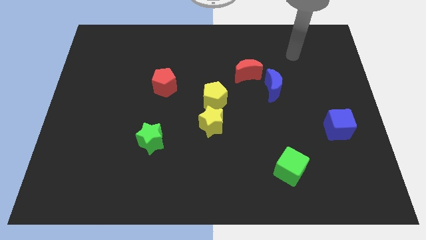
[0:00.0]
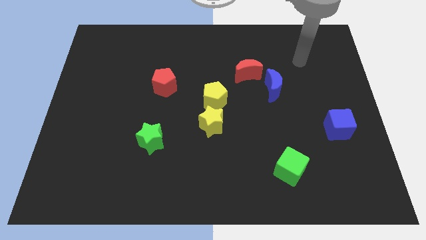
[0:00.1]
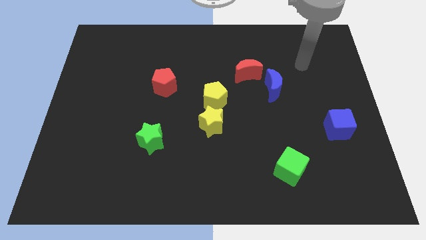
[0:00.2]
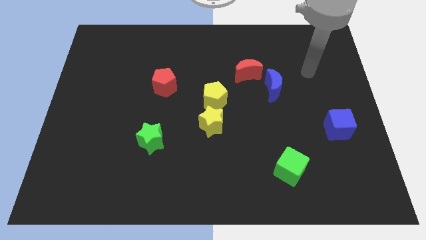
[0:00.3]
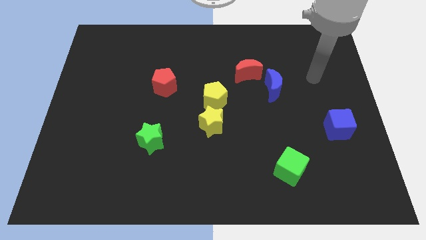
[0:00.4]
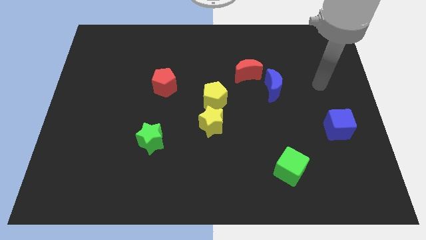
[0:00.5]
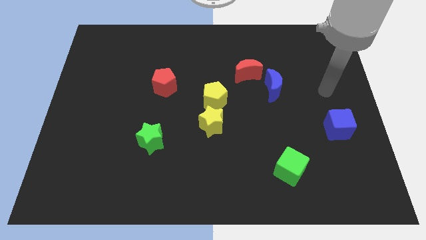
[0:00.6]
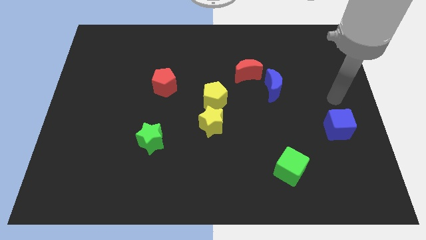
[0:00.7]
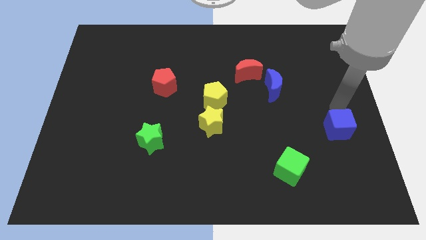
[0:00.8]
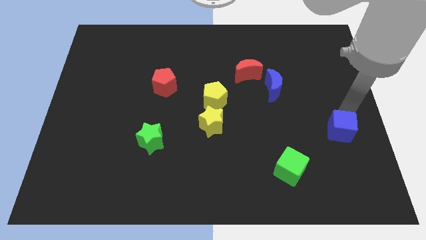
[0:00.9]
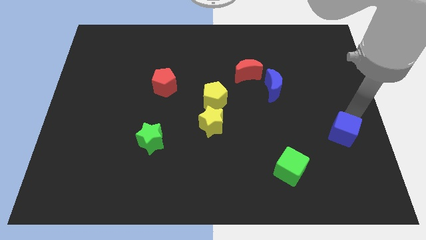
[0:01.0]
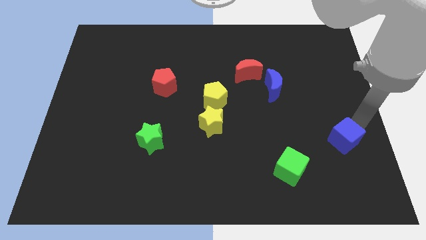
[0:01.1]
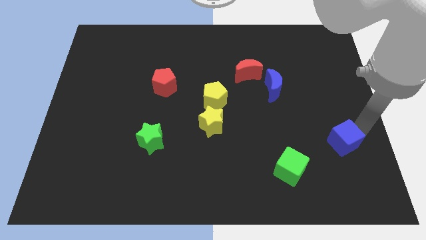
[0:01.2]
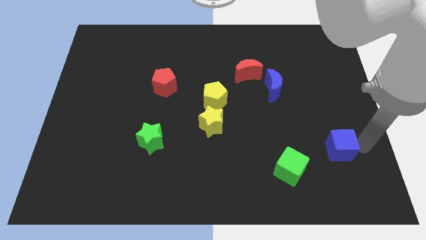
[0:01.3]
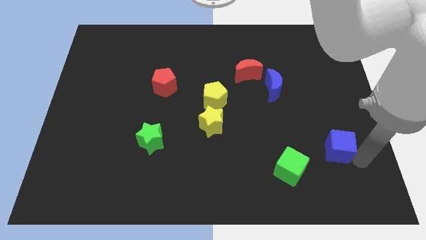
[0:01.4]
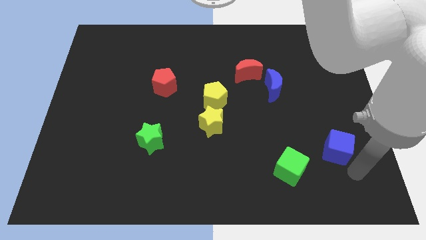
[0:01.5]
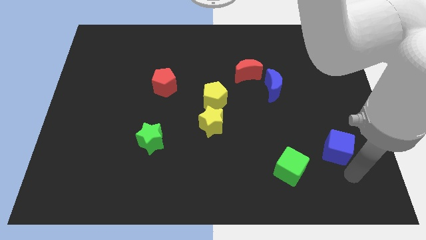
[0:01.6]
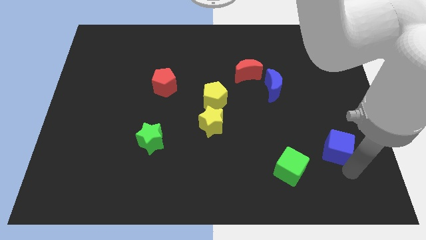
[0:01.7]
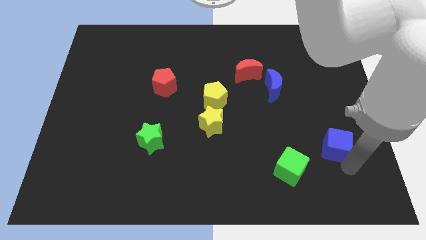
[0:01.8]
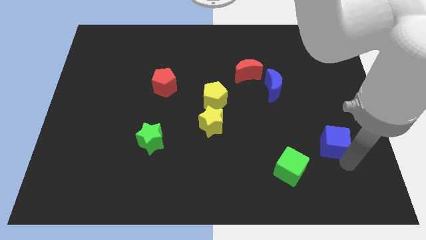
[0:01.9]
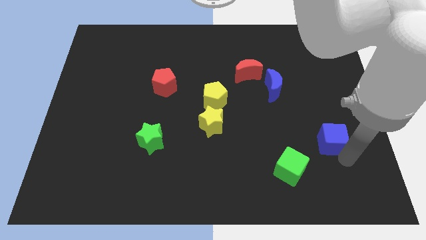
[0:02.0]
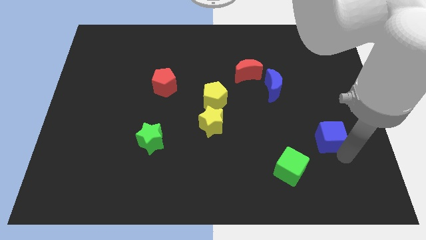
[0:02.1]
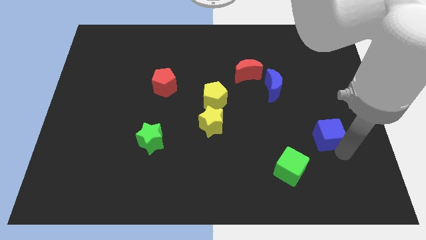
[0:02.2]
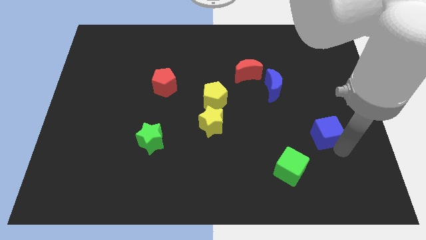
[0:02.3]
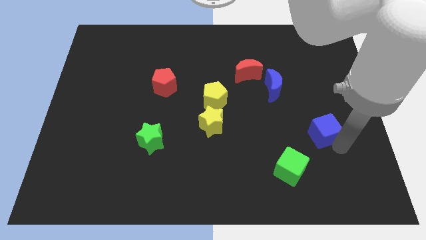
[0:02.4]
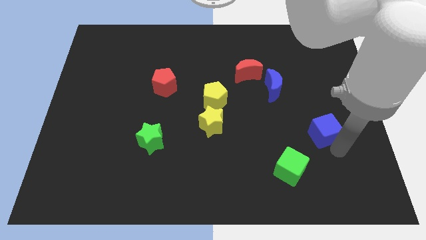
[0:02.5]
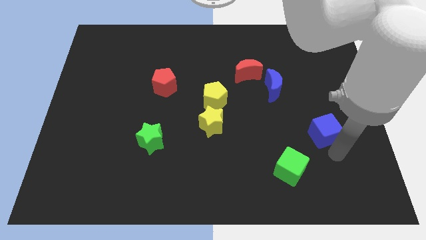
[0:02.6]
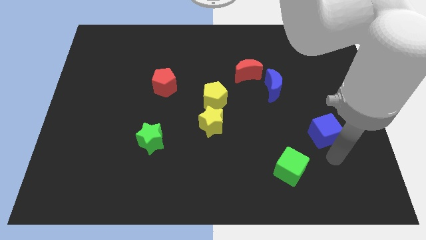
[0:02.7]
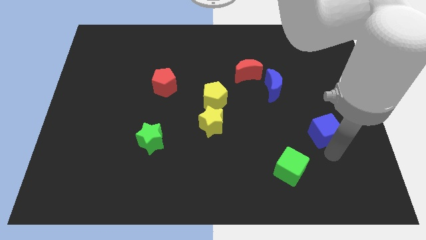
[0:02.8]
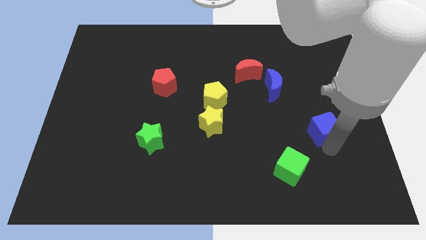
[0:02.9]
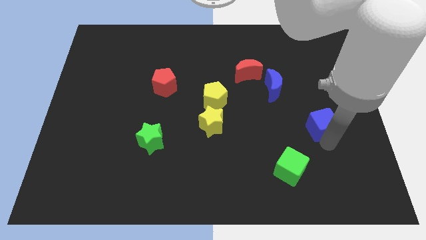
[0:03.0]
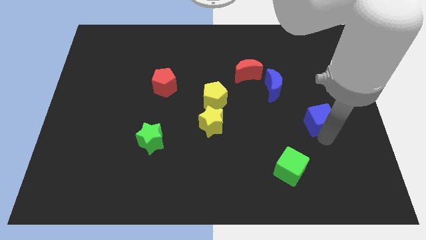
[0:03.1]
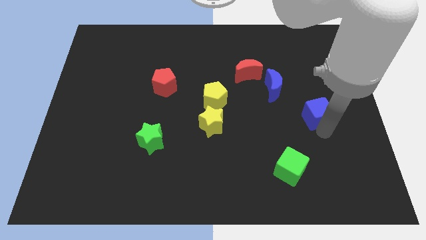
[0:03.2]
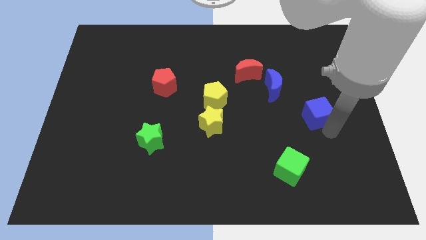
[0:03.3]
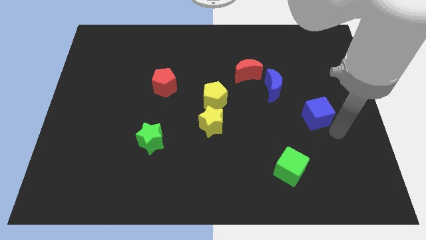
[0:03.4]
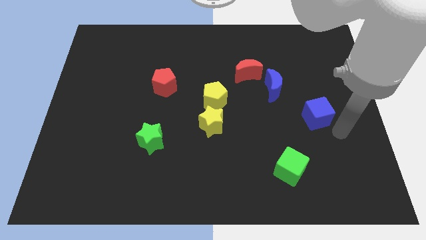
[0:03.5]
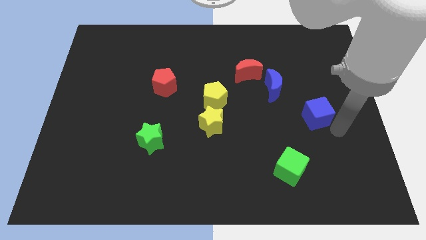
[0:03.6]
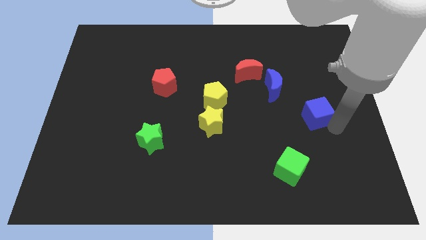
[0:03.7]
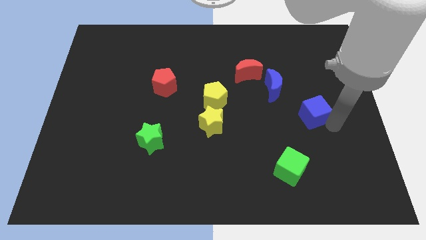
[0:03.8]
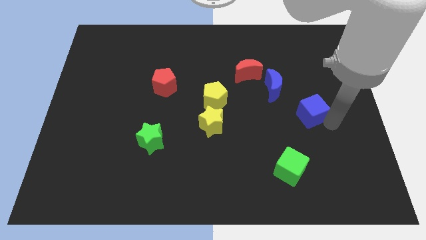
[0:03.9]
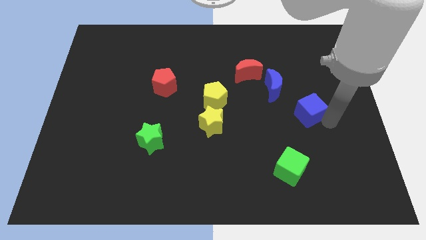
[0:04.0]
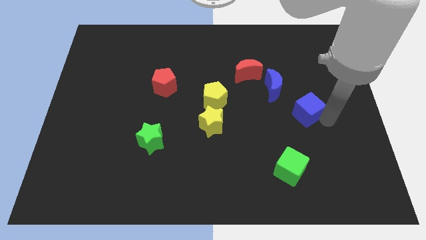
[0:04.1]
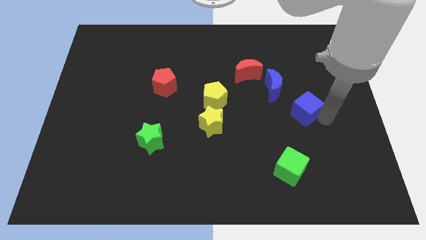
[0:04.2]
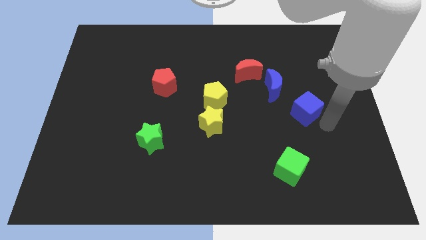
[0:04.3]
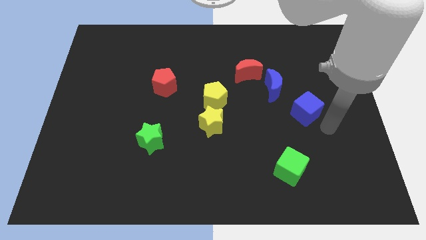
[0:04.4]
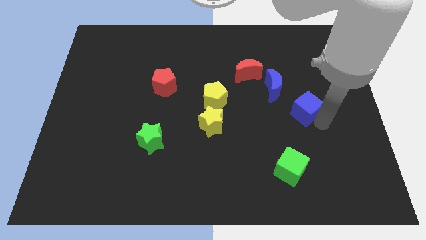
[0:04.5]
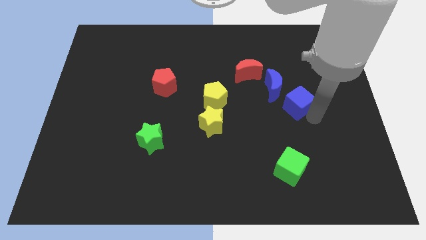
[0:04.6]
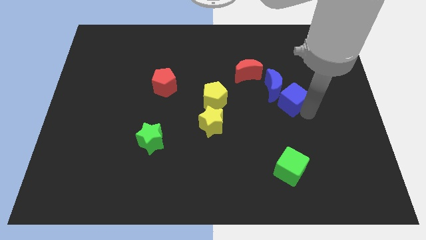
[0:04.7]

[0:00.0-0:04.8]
slide the blue cube towards the blue moon

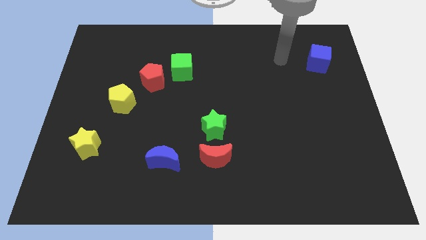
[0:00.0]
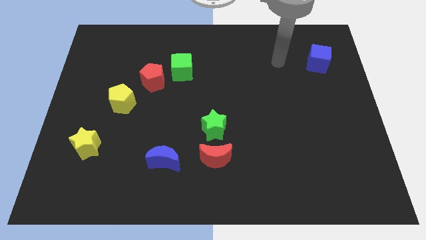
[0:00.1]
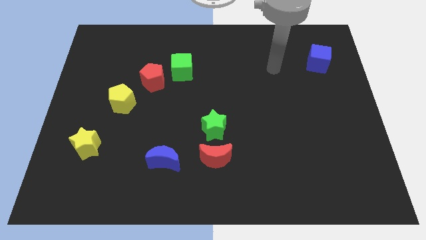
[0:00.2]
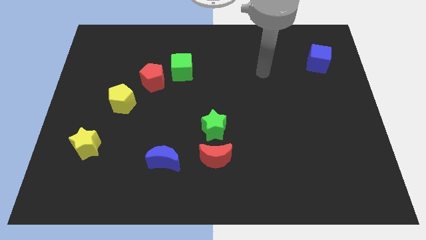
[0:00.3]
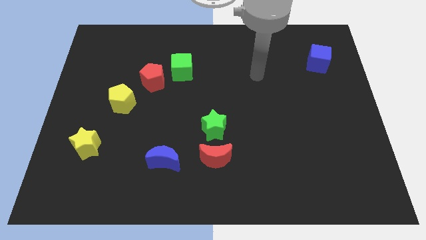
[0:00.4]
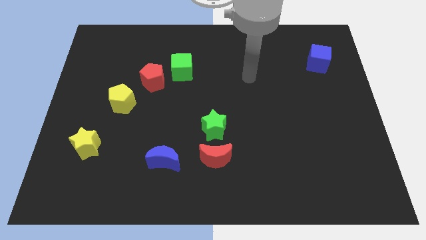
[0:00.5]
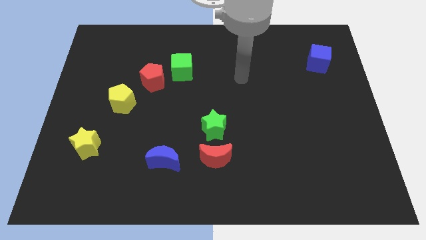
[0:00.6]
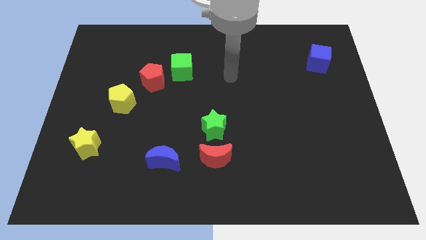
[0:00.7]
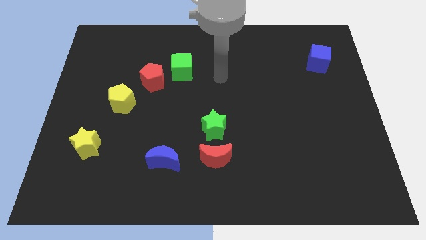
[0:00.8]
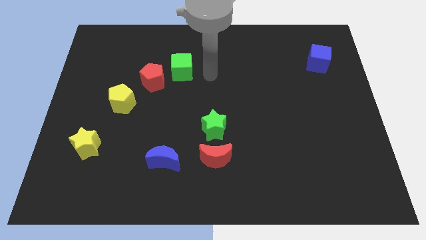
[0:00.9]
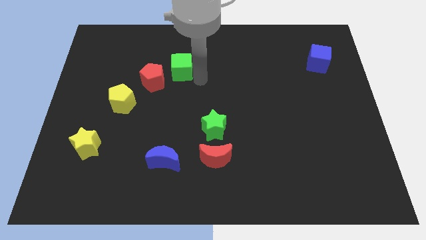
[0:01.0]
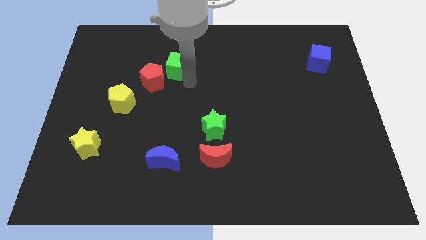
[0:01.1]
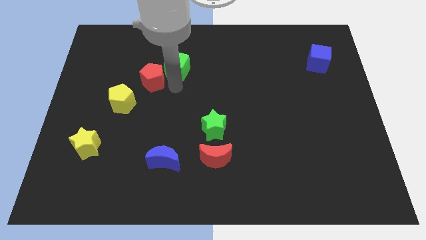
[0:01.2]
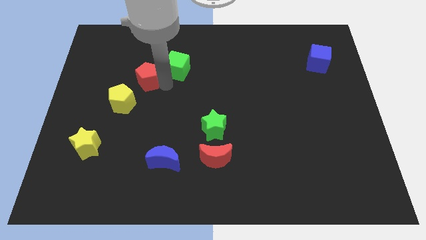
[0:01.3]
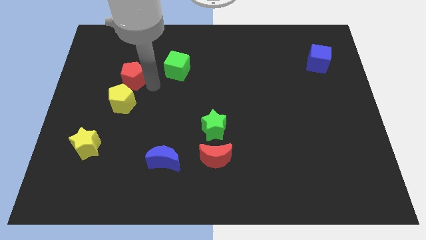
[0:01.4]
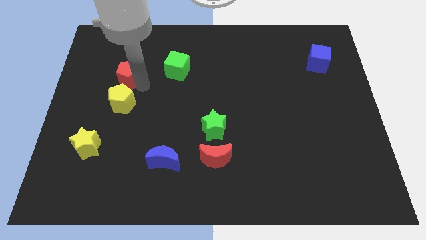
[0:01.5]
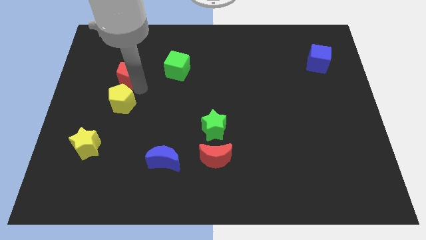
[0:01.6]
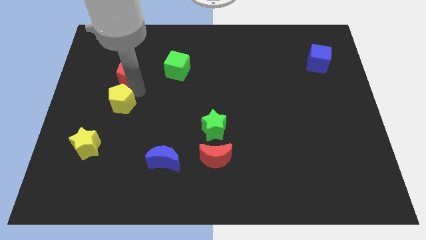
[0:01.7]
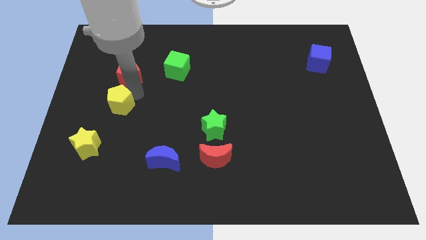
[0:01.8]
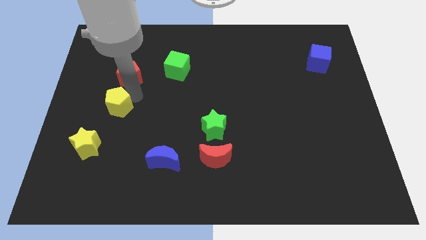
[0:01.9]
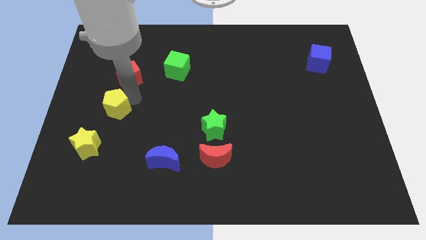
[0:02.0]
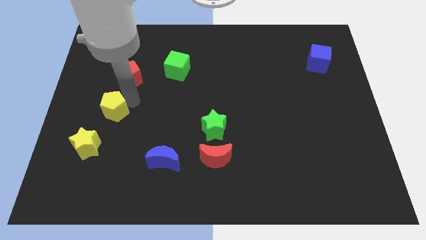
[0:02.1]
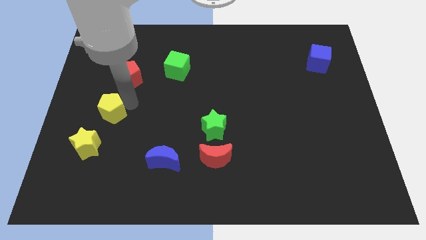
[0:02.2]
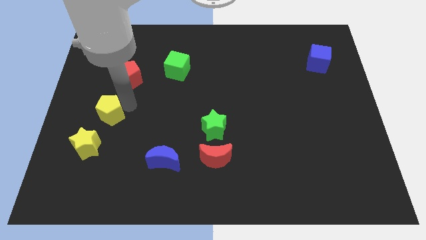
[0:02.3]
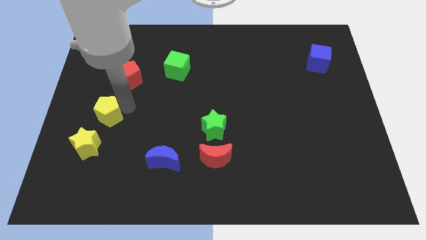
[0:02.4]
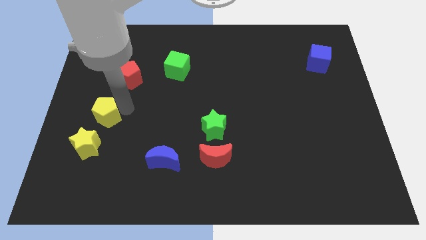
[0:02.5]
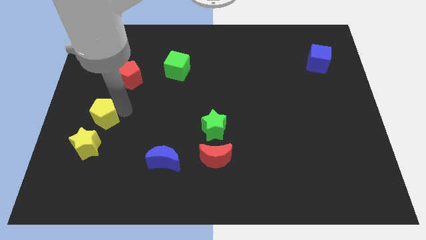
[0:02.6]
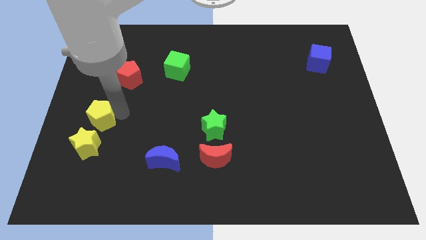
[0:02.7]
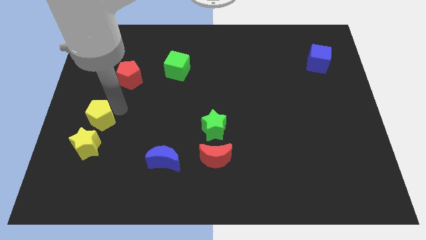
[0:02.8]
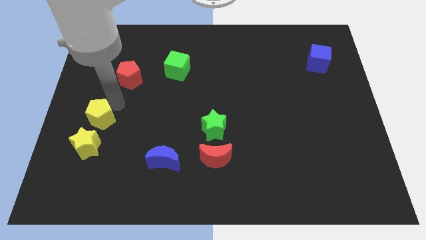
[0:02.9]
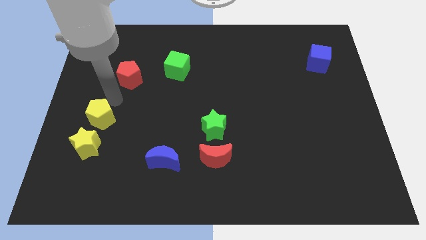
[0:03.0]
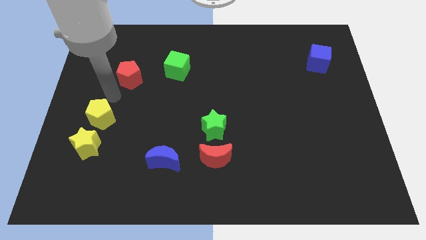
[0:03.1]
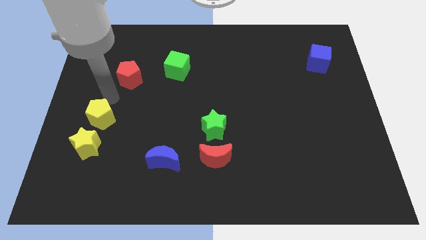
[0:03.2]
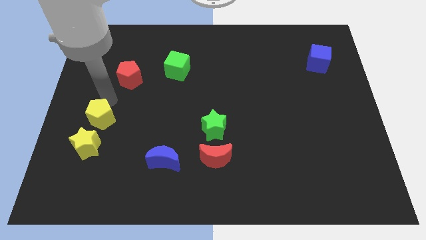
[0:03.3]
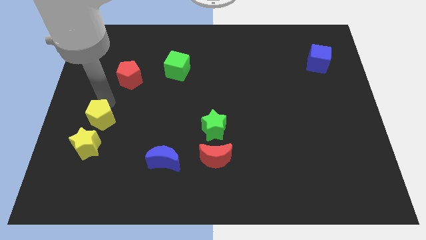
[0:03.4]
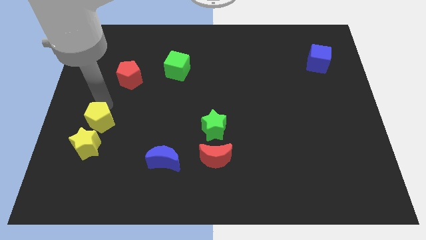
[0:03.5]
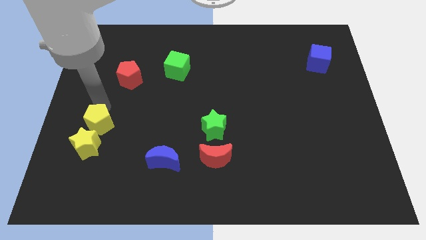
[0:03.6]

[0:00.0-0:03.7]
move the yellow pentagon to the yellow star
